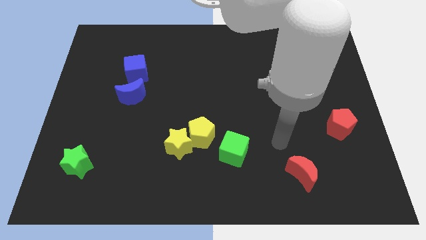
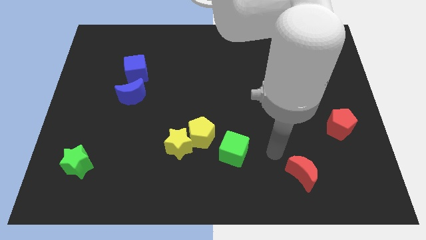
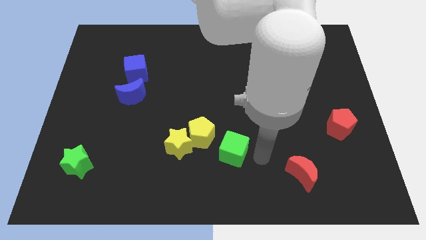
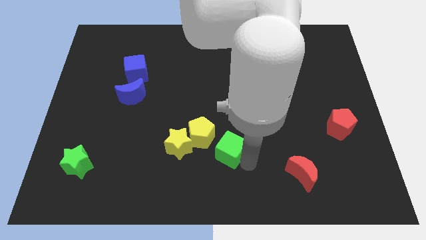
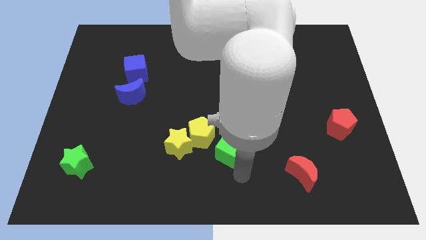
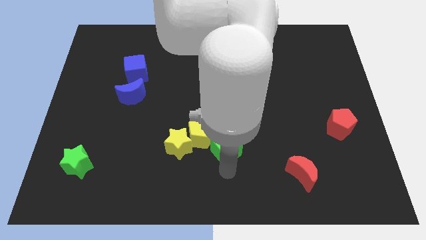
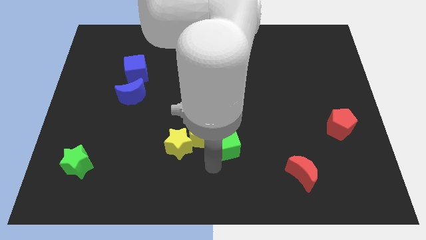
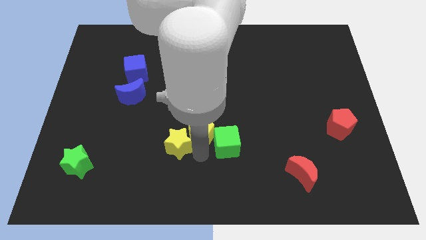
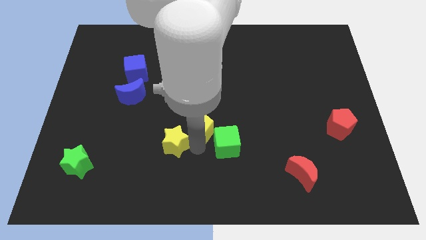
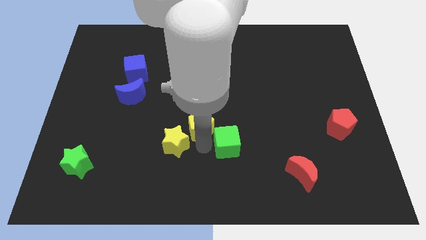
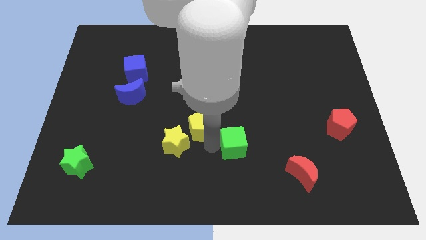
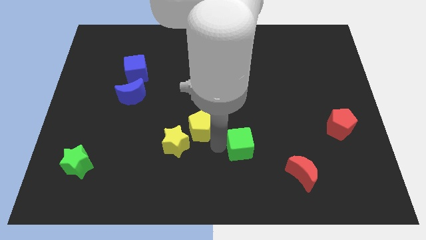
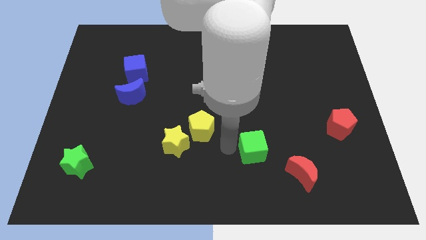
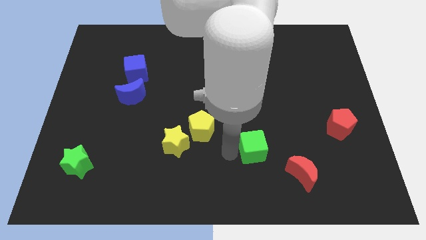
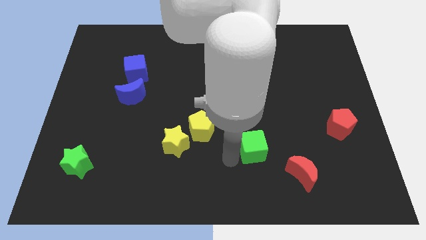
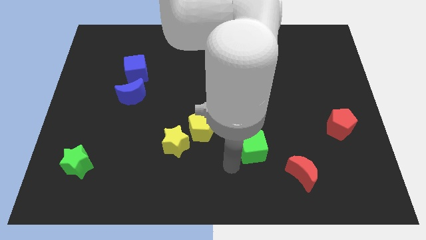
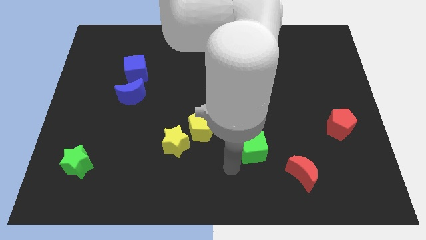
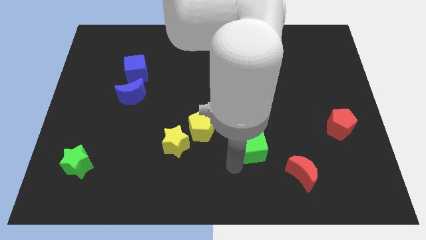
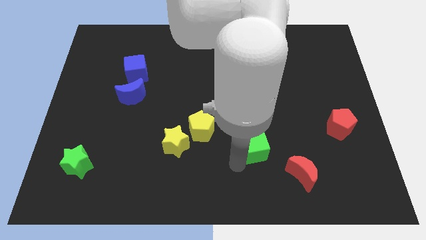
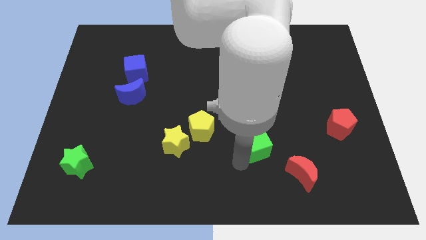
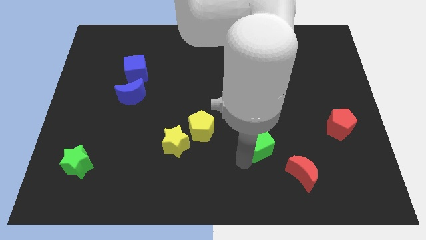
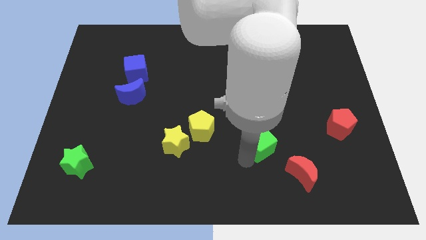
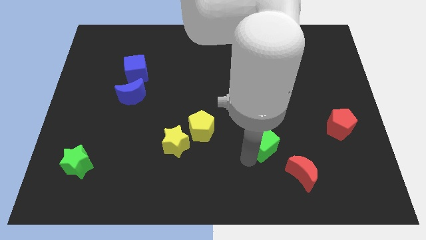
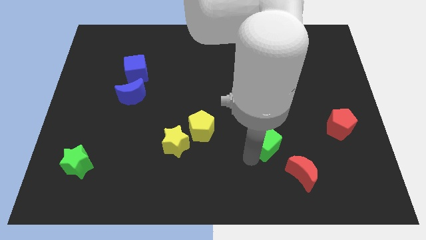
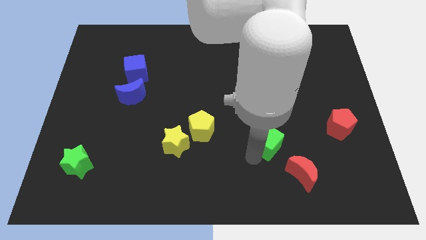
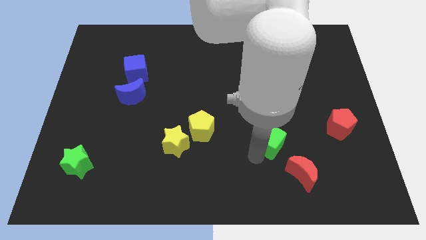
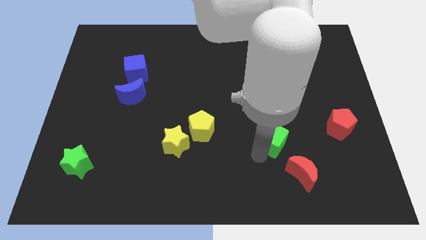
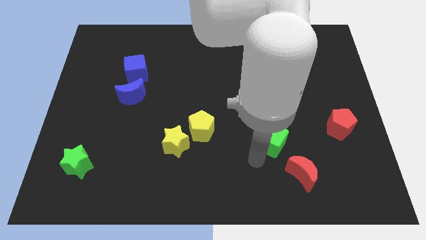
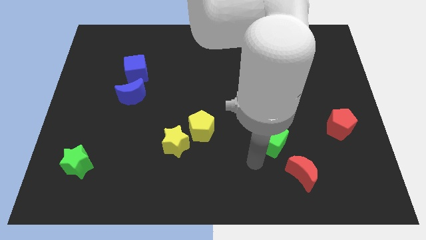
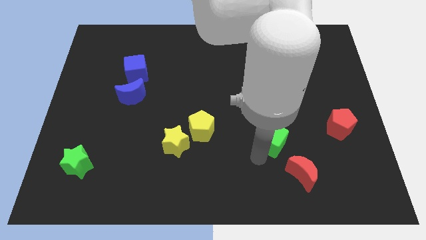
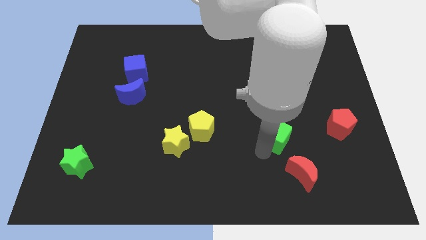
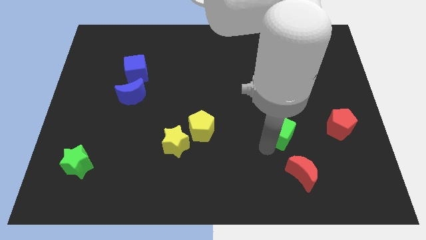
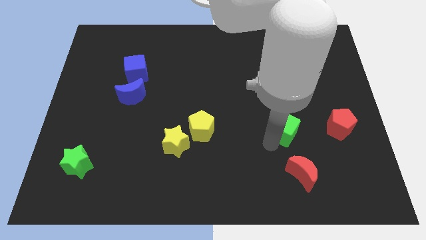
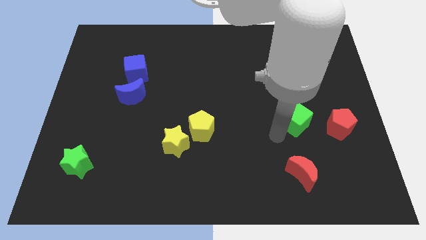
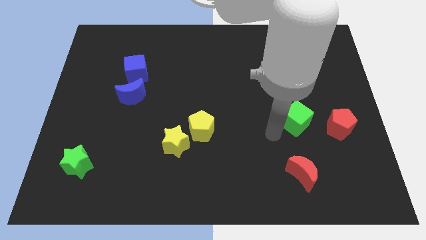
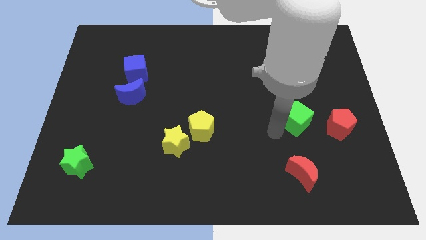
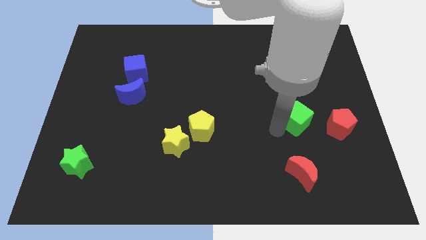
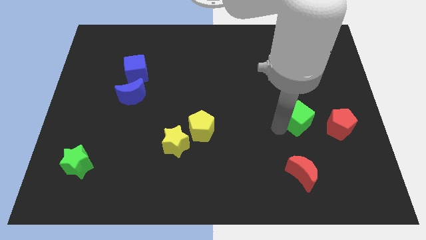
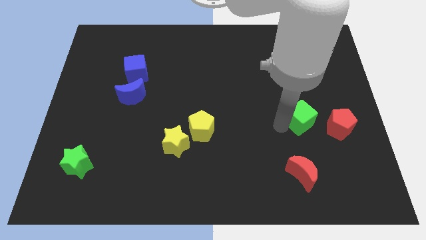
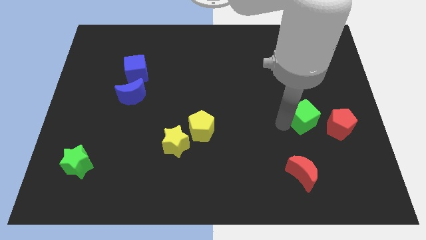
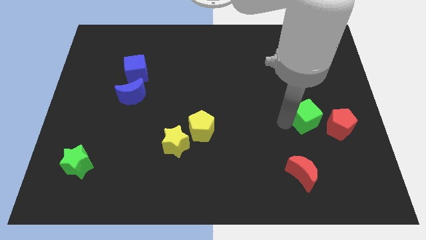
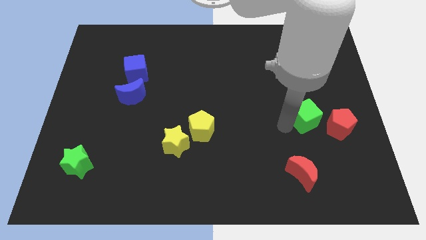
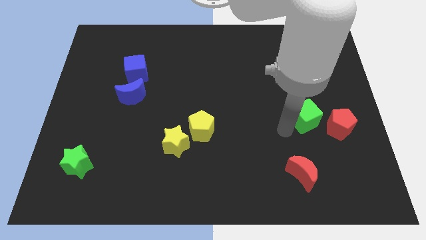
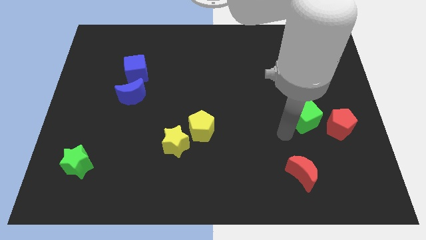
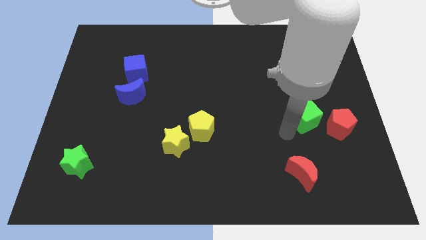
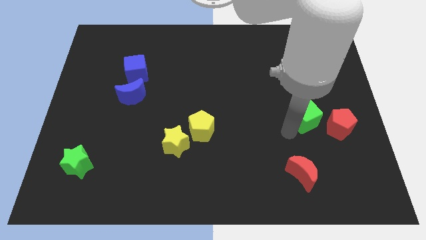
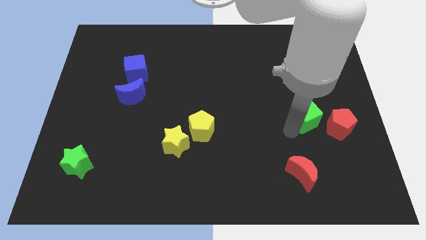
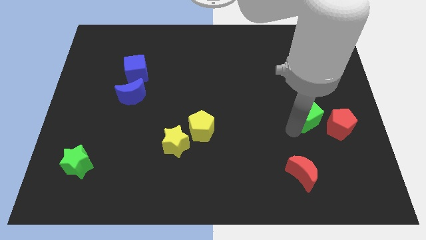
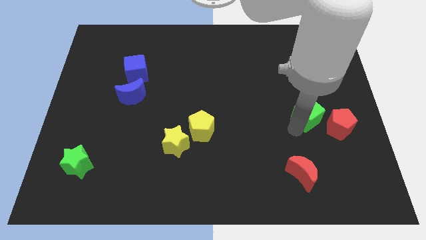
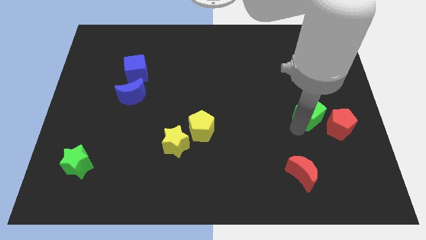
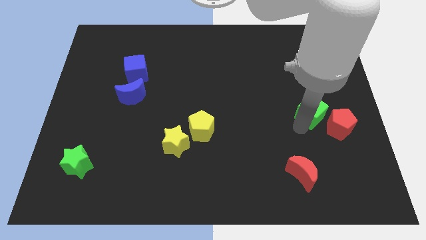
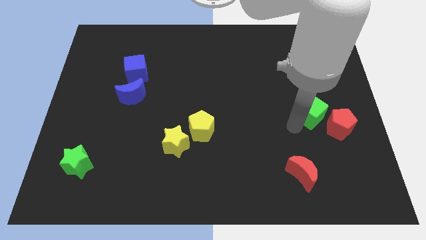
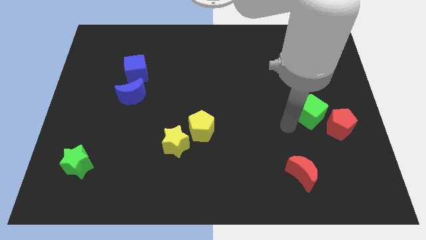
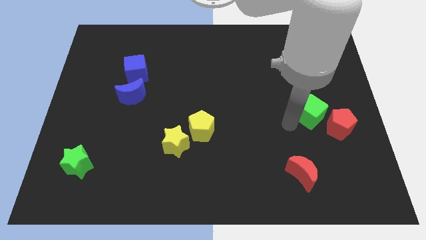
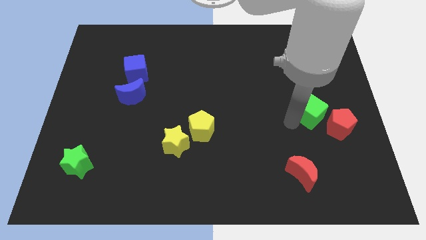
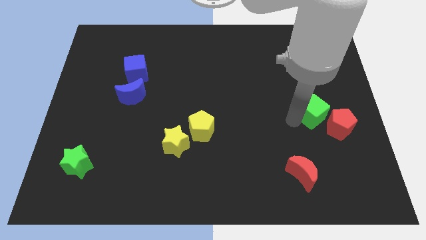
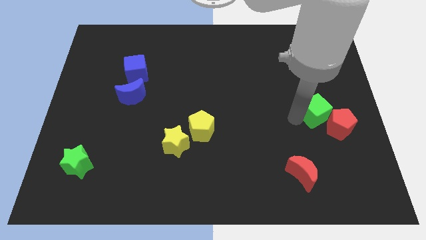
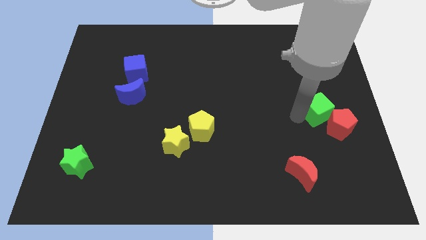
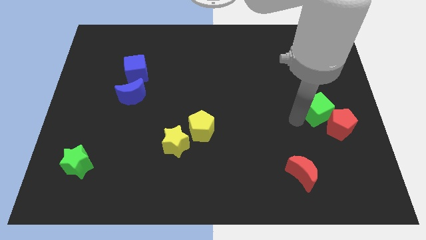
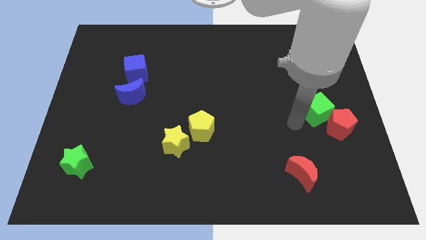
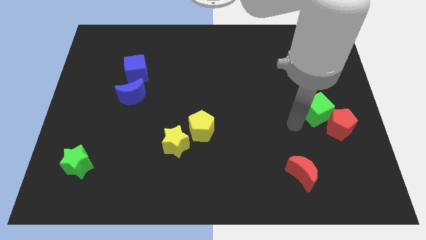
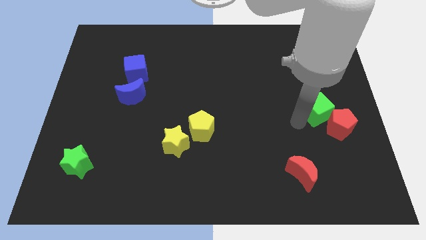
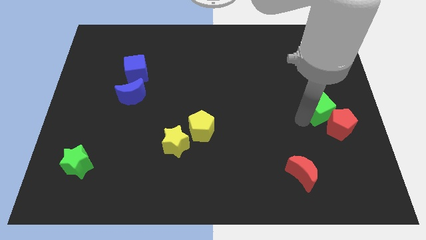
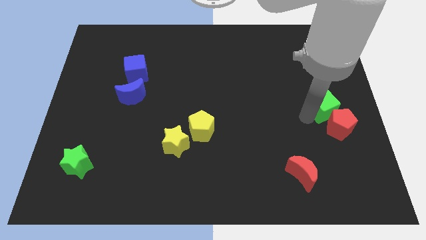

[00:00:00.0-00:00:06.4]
move the green cube to the center right

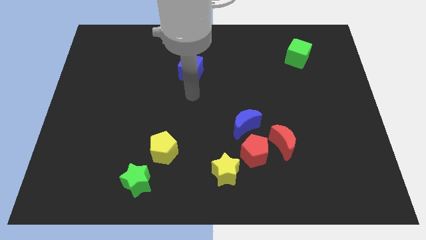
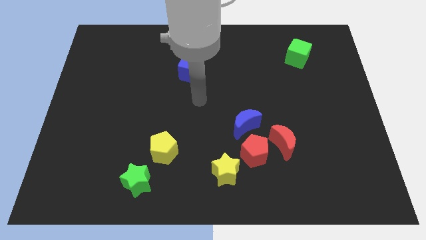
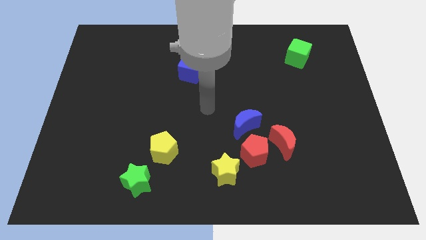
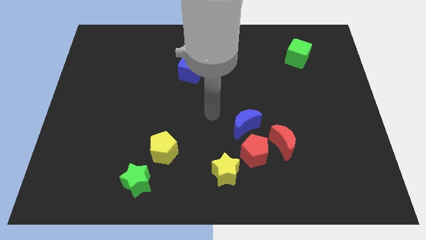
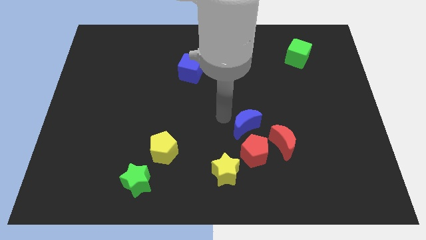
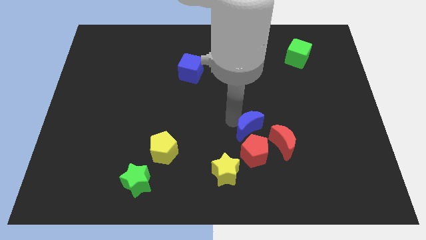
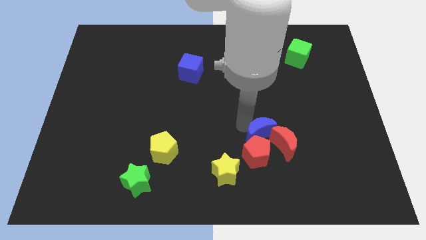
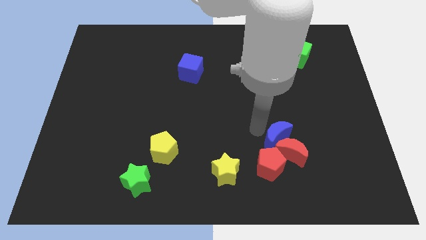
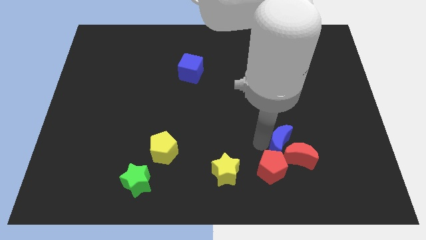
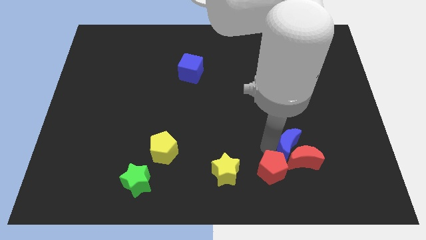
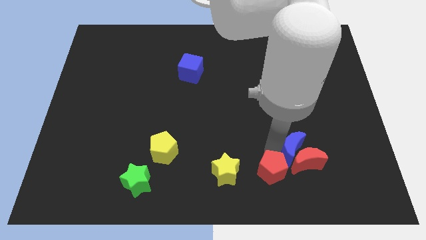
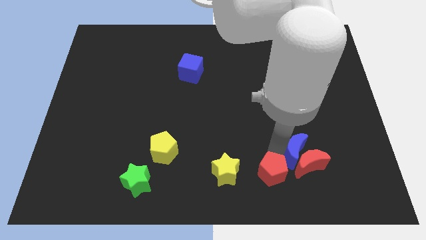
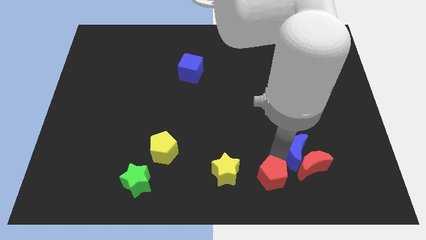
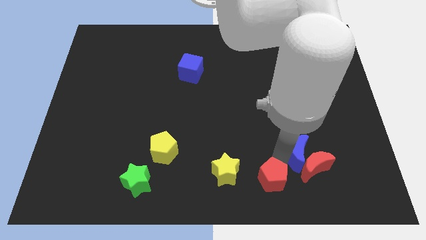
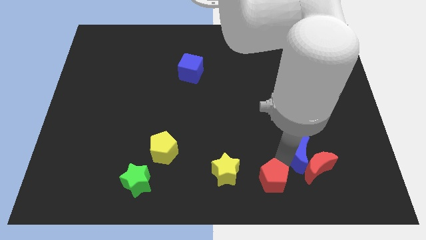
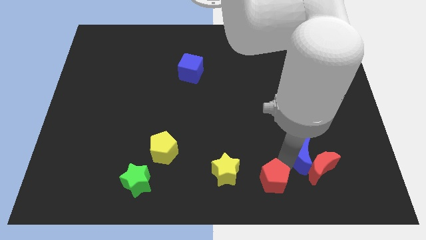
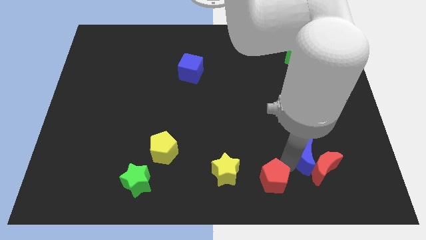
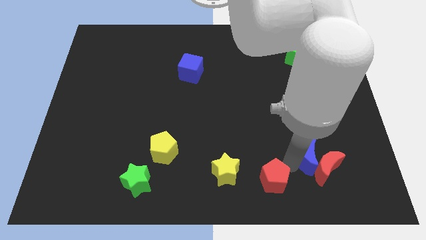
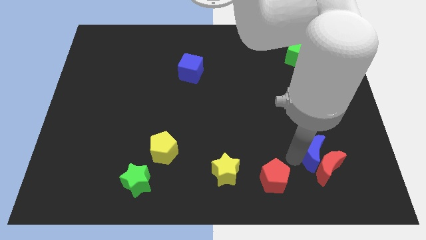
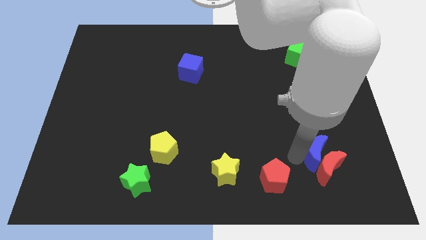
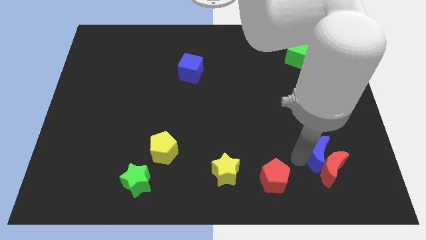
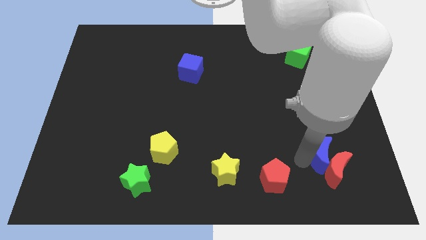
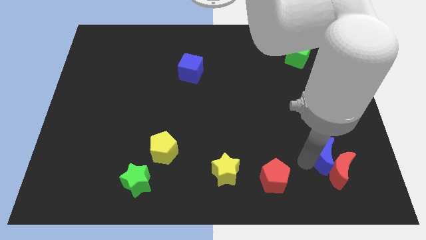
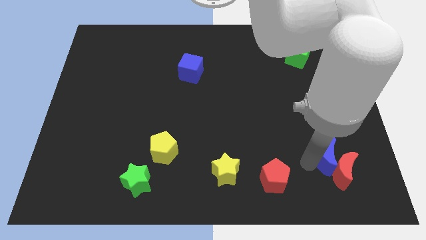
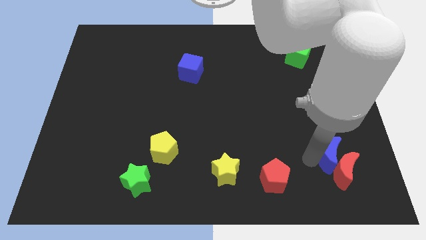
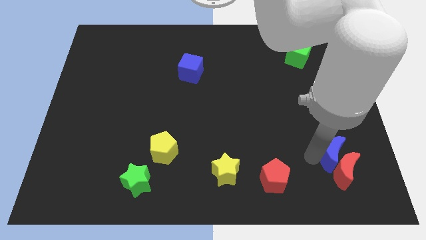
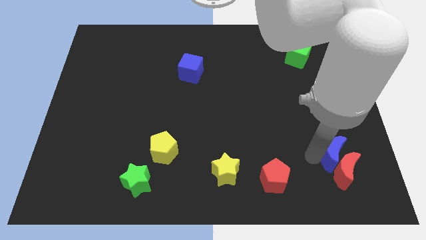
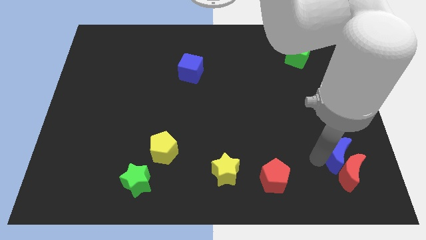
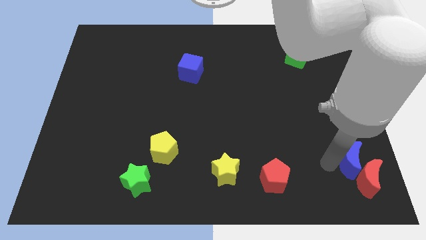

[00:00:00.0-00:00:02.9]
move the red moon to the bottom right
